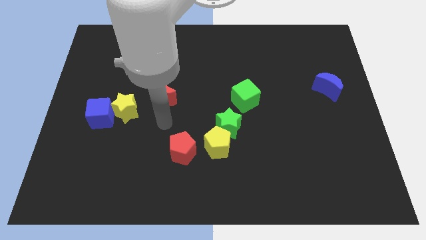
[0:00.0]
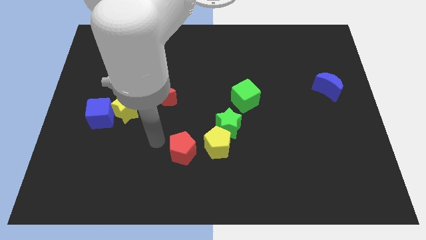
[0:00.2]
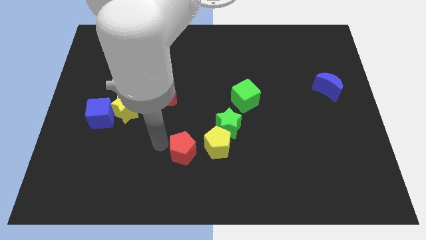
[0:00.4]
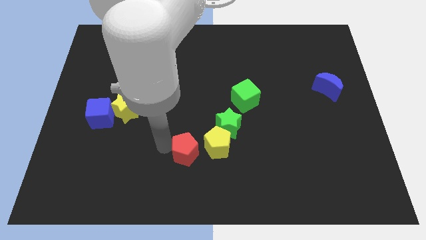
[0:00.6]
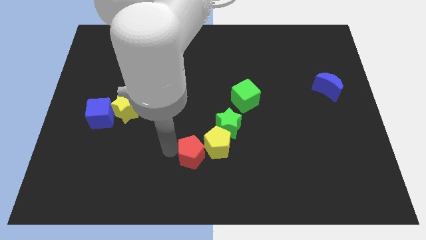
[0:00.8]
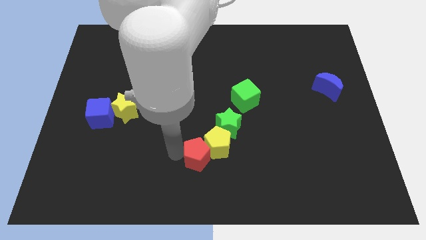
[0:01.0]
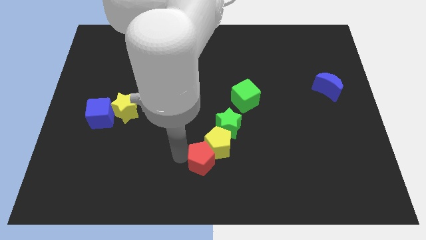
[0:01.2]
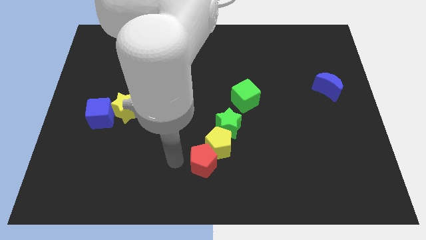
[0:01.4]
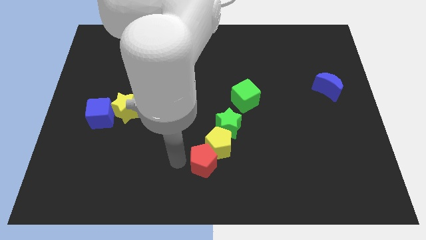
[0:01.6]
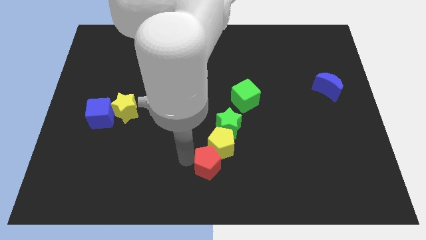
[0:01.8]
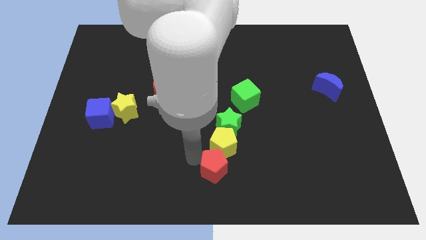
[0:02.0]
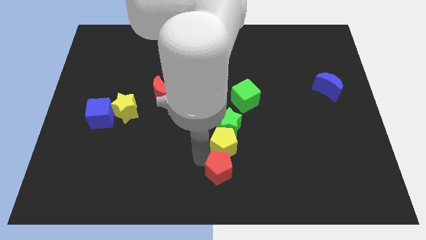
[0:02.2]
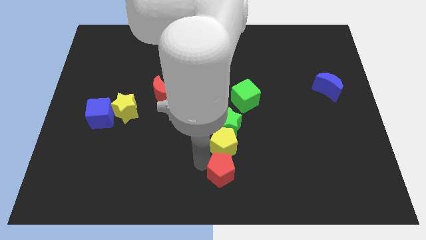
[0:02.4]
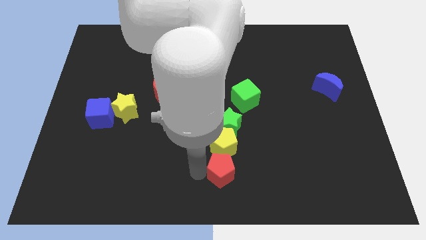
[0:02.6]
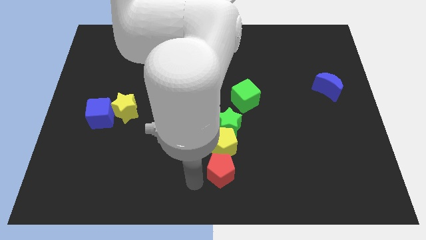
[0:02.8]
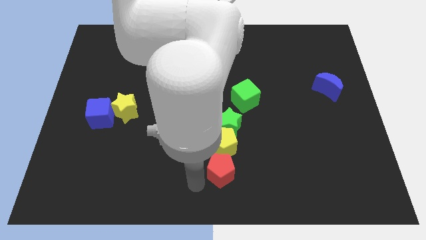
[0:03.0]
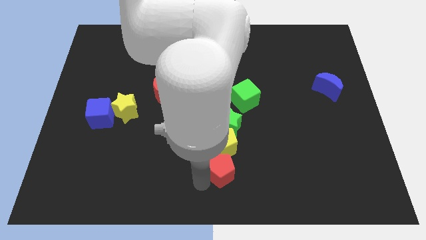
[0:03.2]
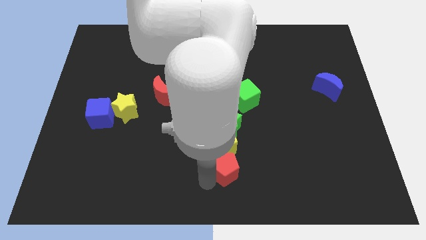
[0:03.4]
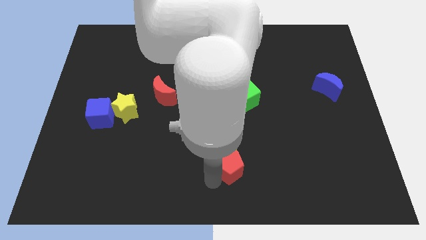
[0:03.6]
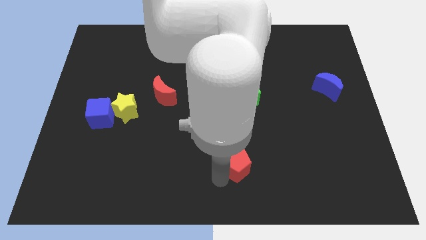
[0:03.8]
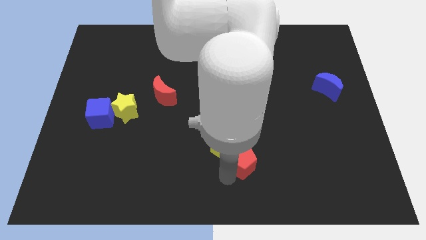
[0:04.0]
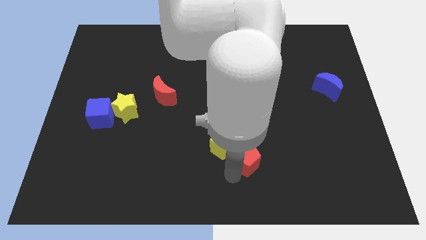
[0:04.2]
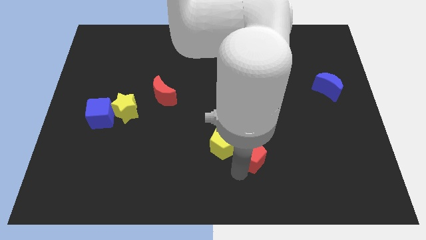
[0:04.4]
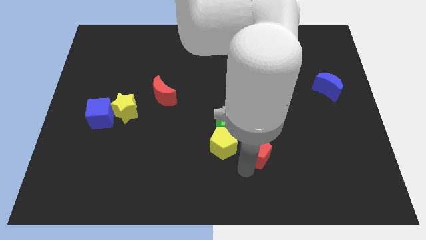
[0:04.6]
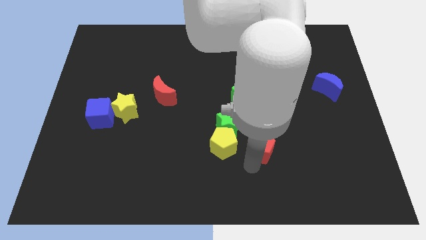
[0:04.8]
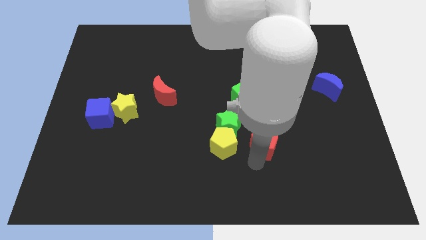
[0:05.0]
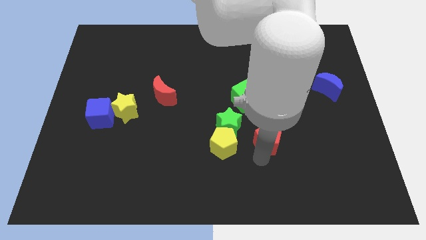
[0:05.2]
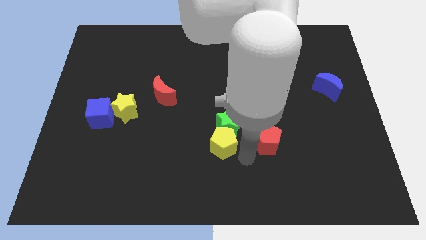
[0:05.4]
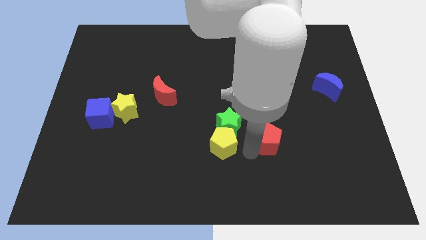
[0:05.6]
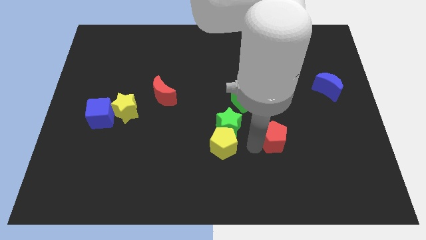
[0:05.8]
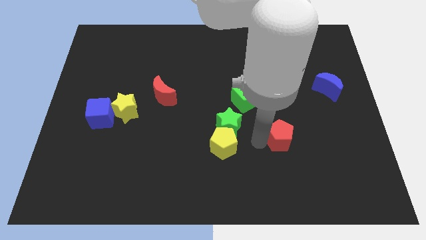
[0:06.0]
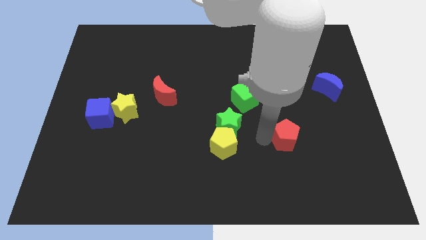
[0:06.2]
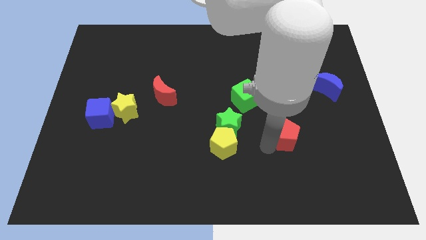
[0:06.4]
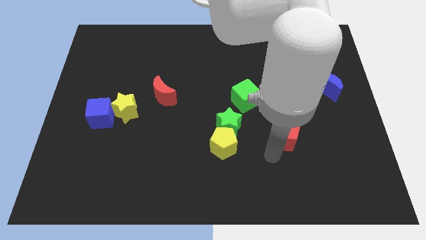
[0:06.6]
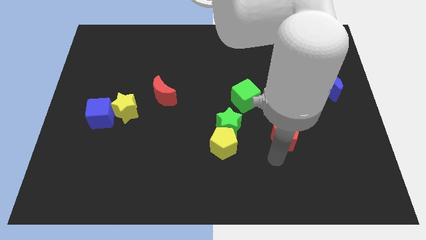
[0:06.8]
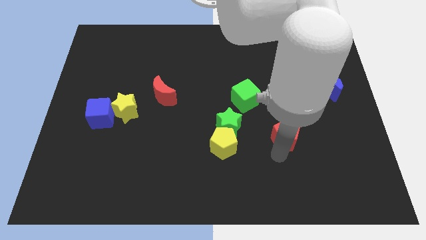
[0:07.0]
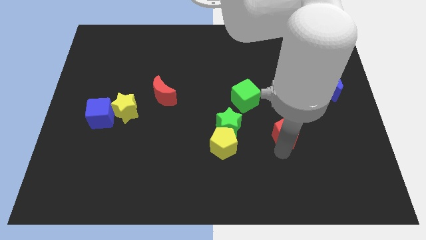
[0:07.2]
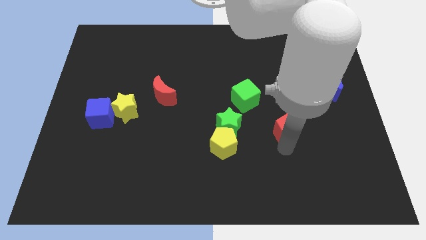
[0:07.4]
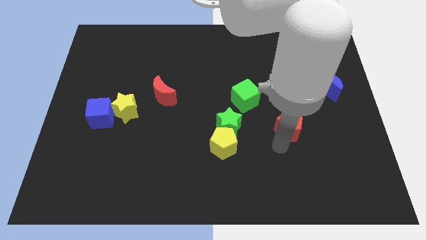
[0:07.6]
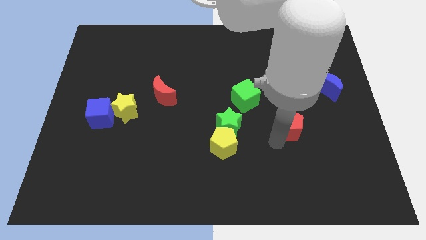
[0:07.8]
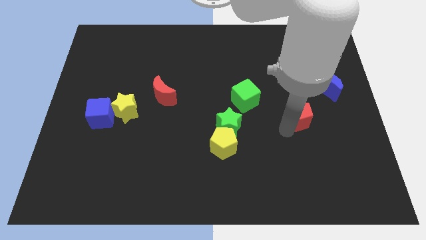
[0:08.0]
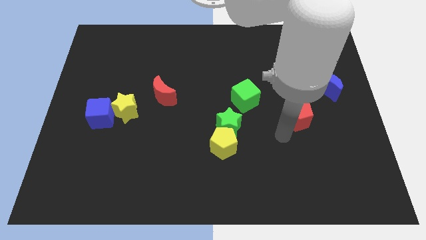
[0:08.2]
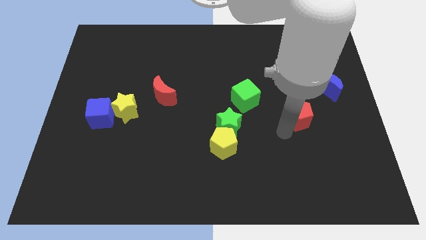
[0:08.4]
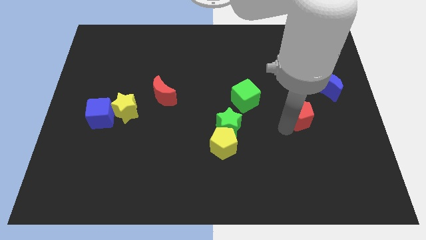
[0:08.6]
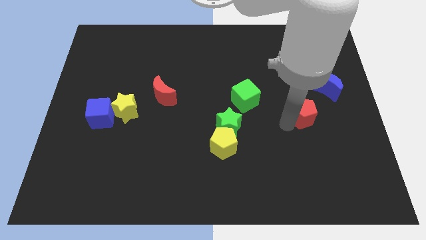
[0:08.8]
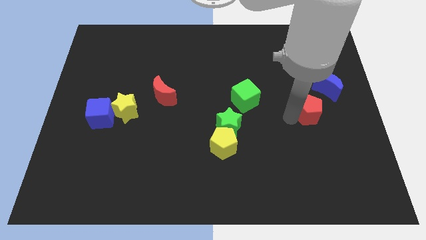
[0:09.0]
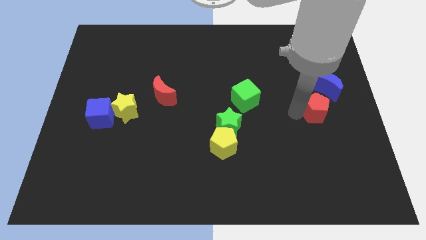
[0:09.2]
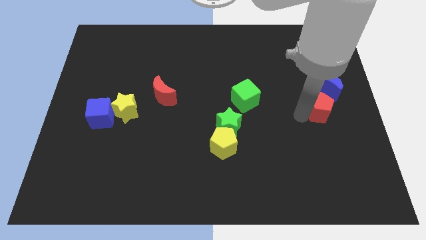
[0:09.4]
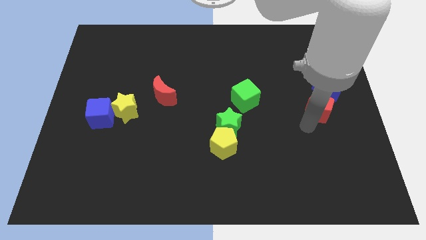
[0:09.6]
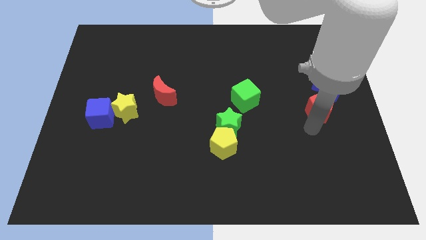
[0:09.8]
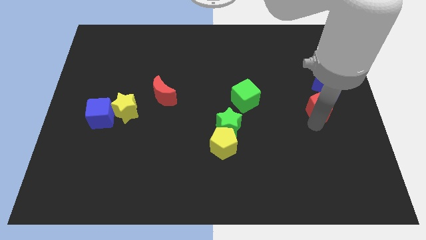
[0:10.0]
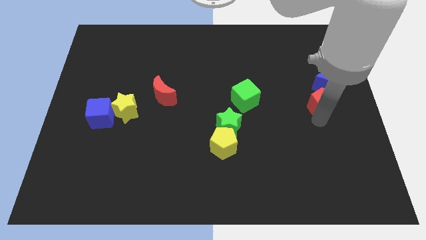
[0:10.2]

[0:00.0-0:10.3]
slide the red pentagon towards the blue moon

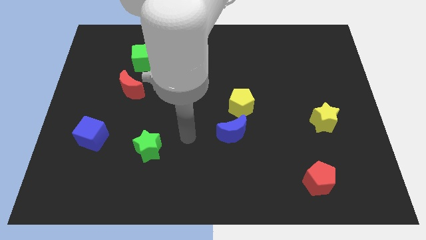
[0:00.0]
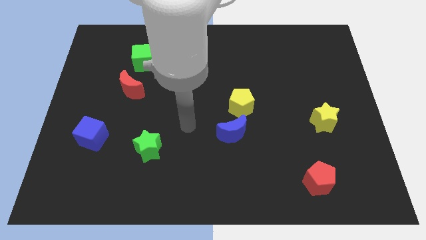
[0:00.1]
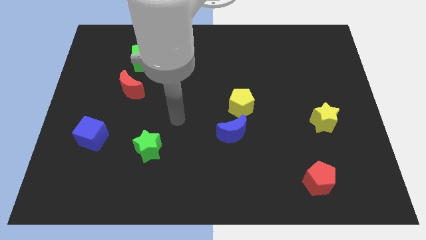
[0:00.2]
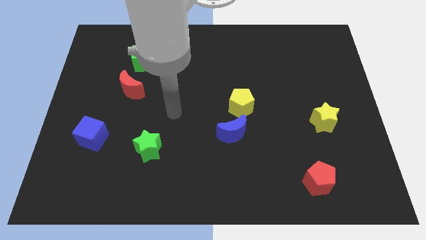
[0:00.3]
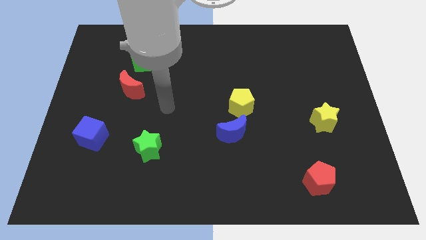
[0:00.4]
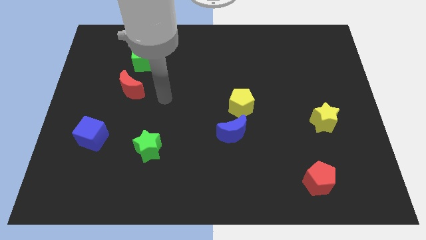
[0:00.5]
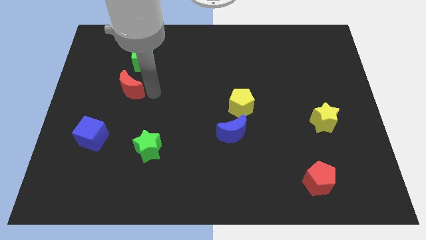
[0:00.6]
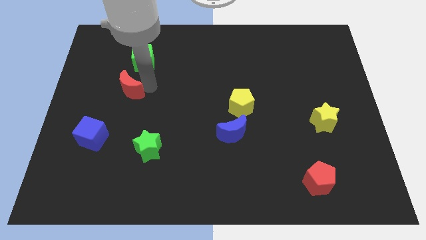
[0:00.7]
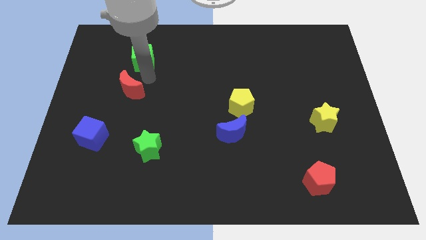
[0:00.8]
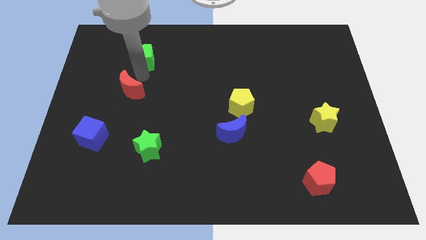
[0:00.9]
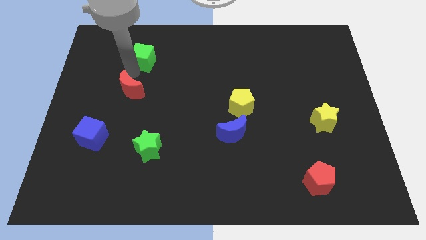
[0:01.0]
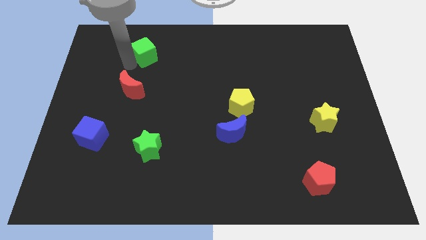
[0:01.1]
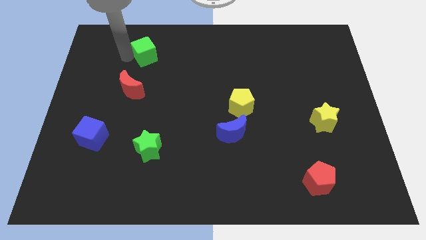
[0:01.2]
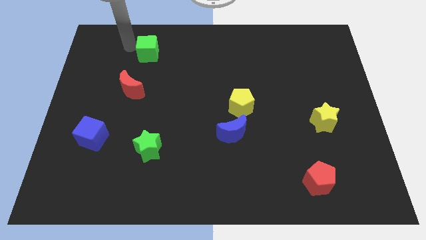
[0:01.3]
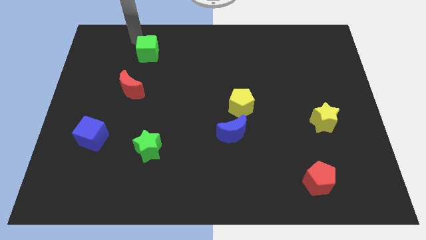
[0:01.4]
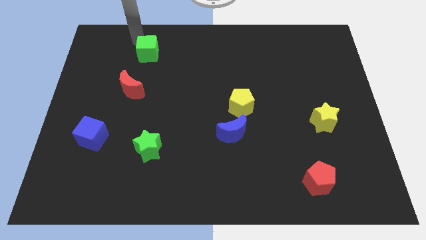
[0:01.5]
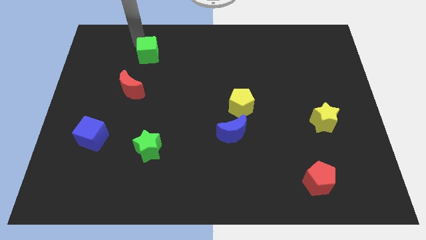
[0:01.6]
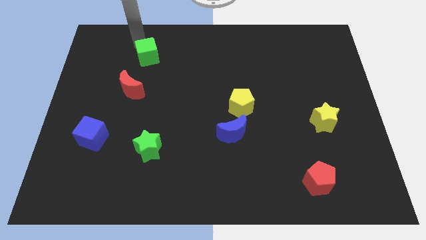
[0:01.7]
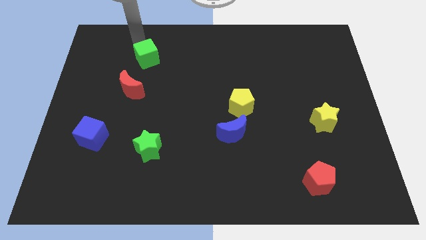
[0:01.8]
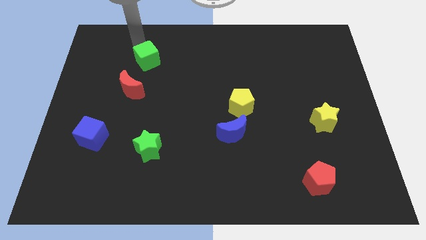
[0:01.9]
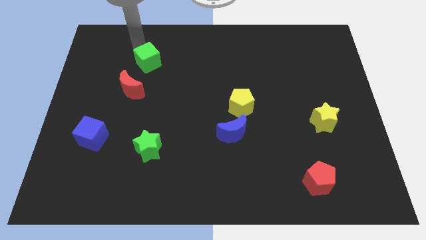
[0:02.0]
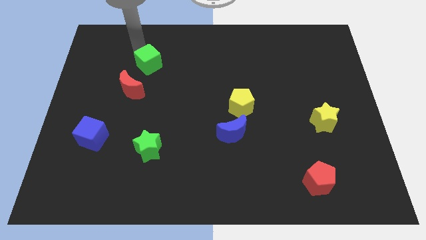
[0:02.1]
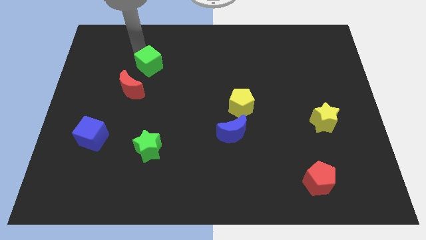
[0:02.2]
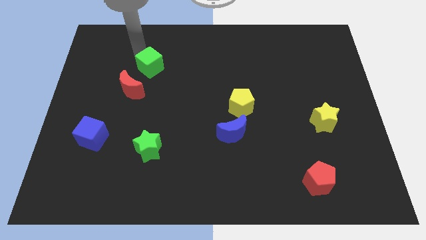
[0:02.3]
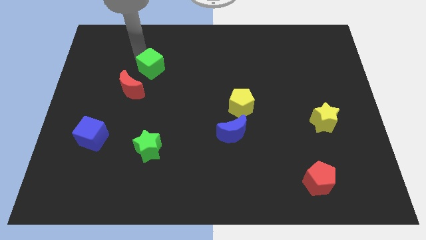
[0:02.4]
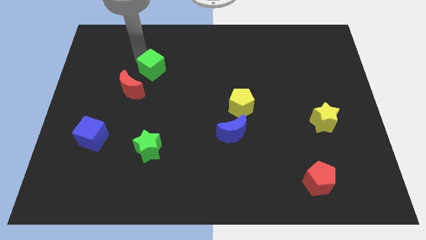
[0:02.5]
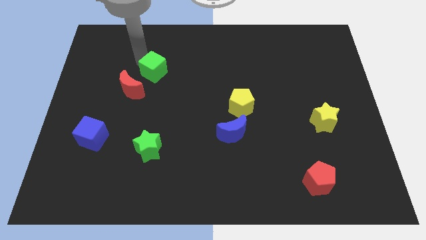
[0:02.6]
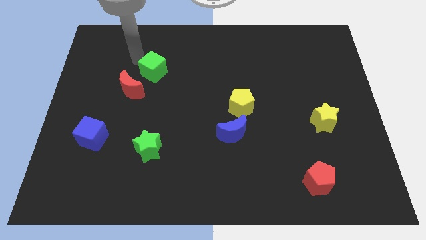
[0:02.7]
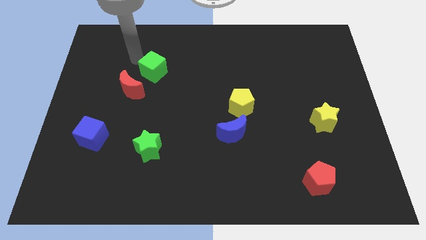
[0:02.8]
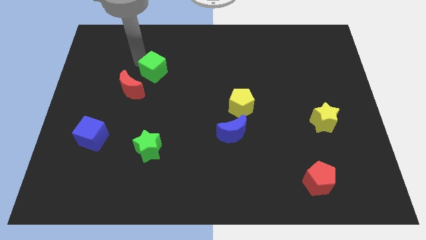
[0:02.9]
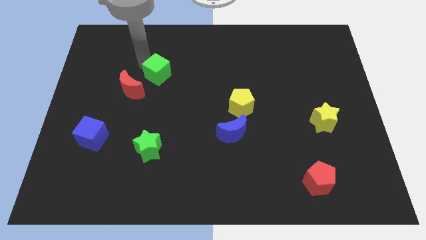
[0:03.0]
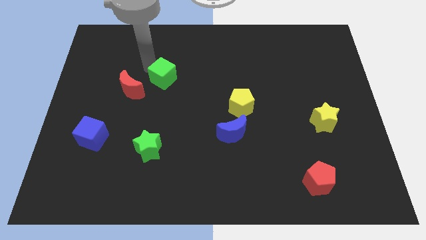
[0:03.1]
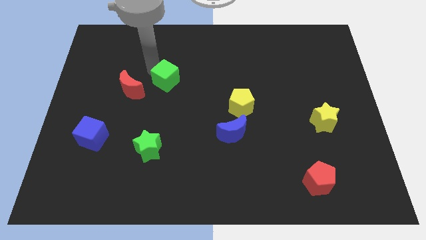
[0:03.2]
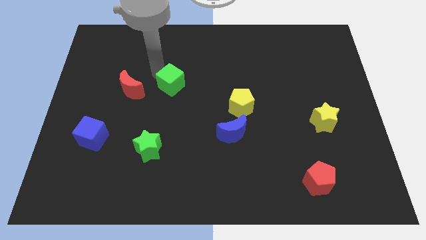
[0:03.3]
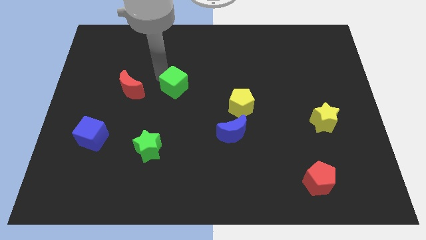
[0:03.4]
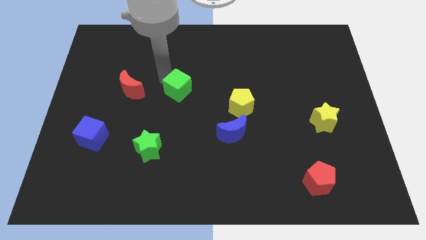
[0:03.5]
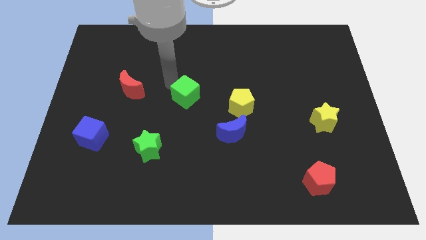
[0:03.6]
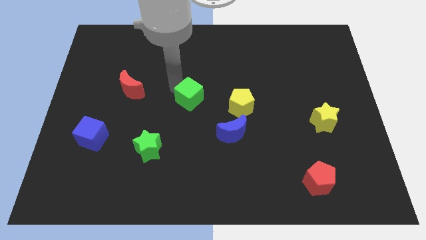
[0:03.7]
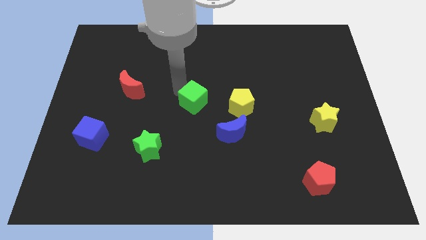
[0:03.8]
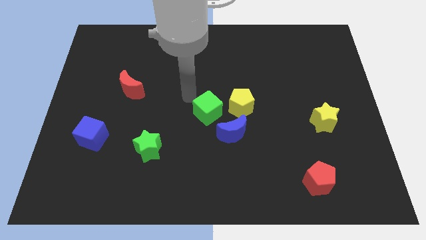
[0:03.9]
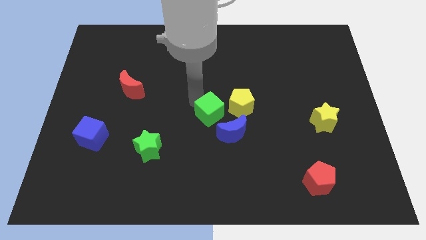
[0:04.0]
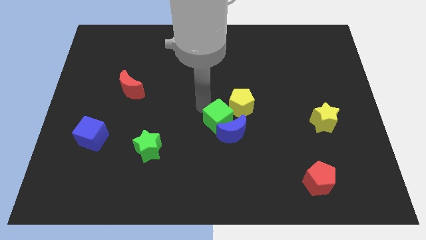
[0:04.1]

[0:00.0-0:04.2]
push the green cube close to the blue moon
